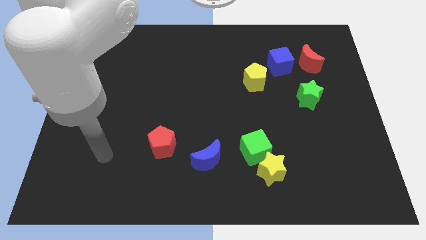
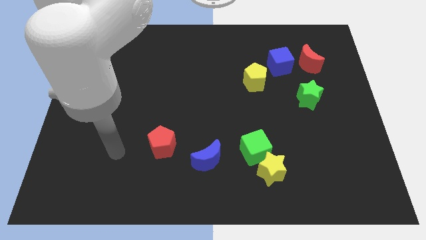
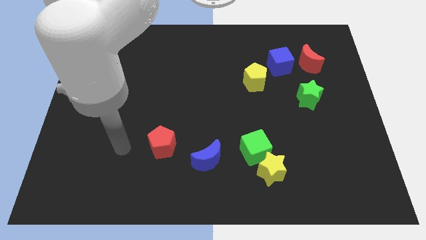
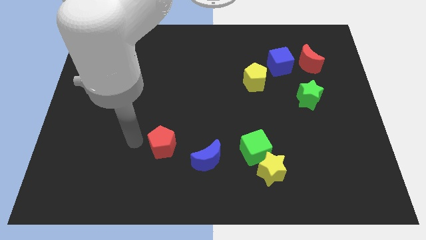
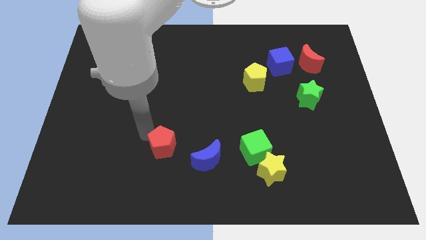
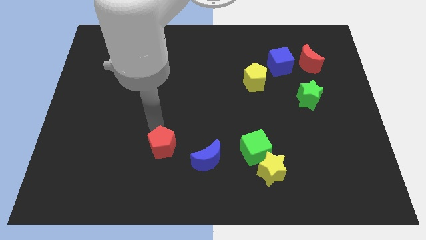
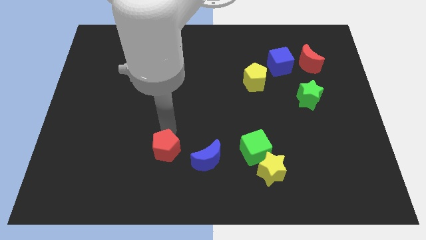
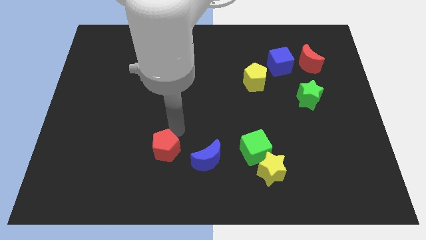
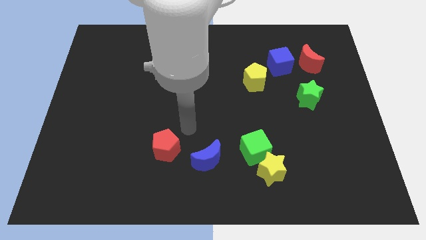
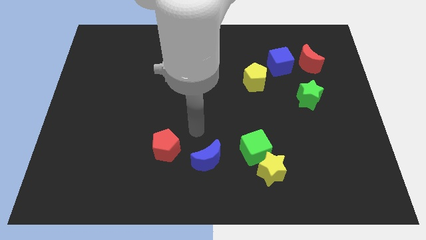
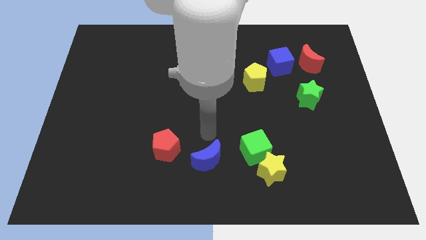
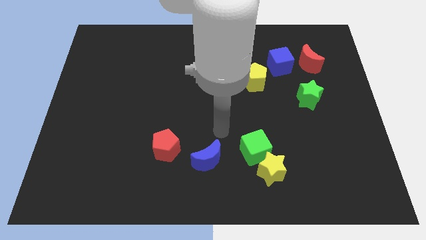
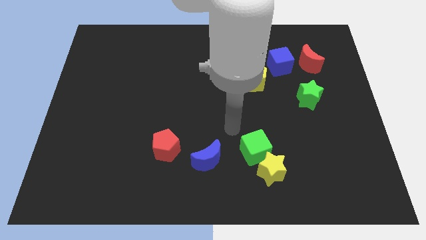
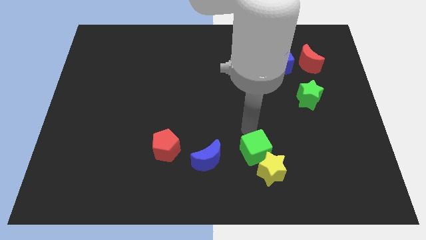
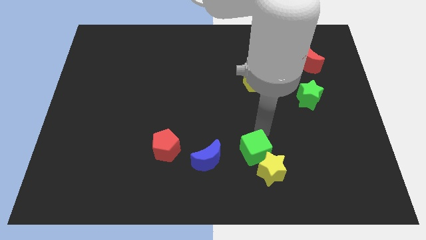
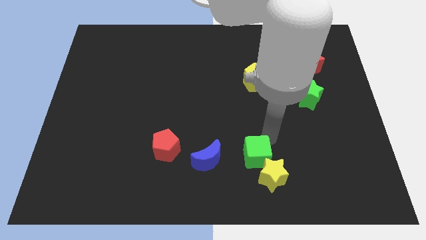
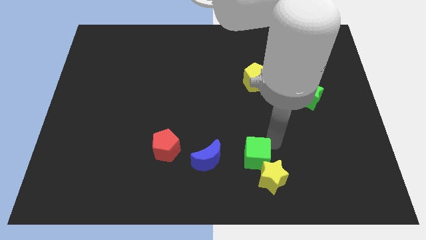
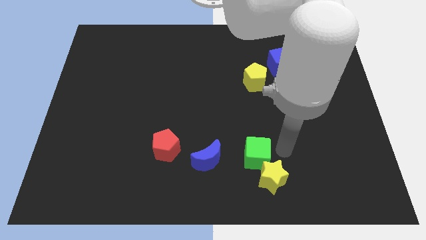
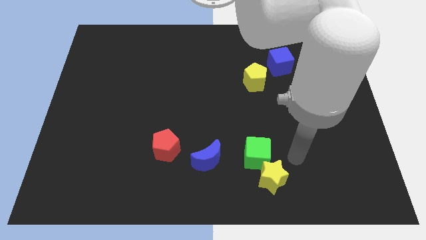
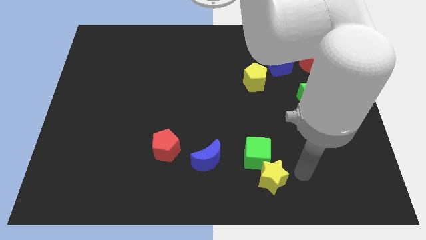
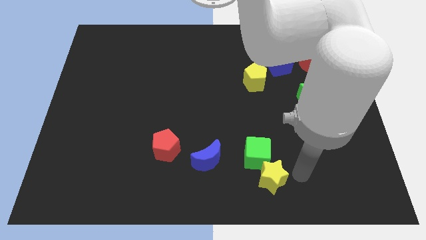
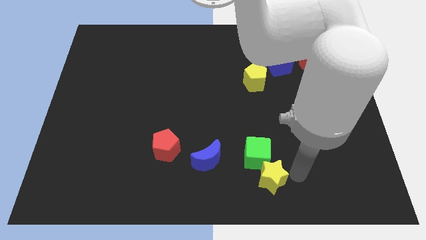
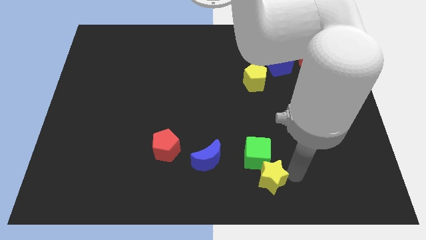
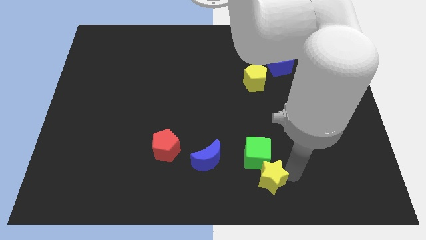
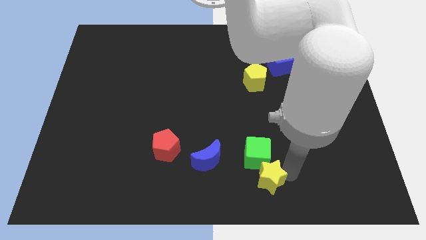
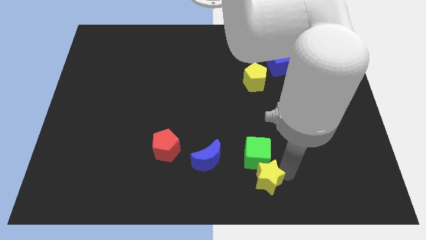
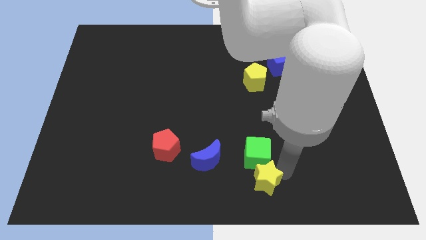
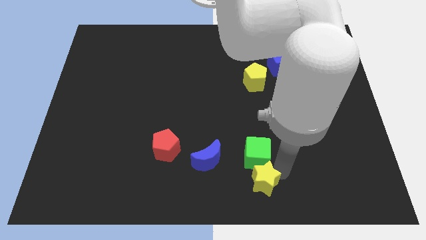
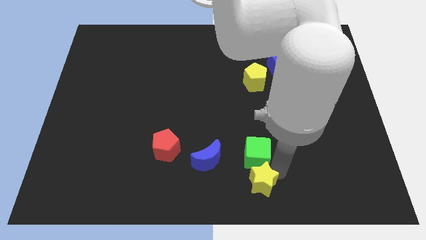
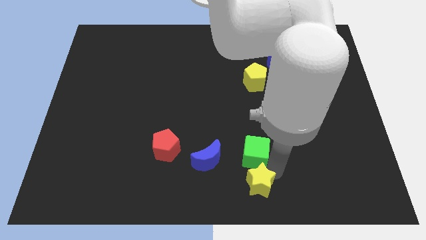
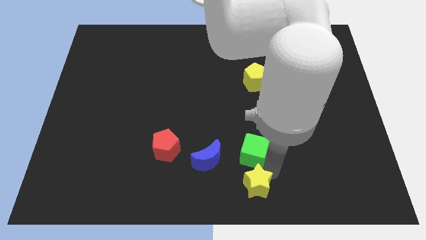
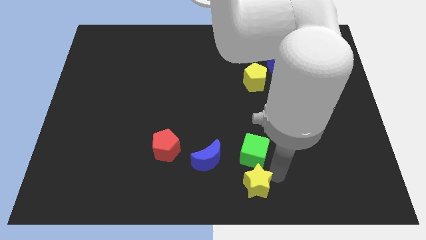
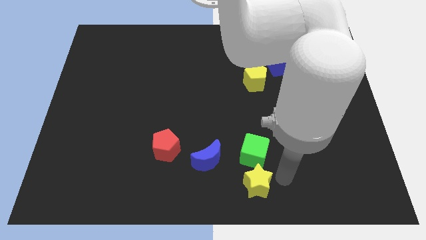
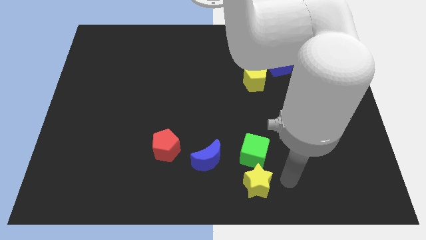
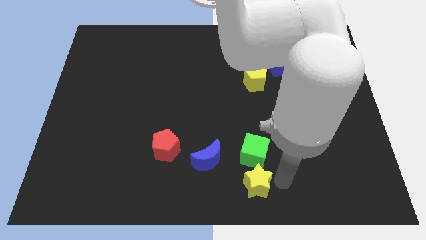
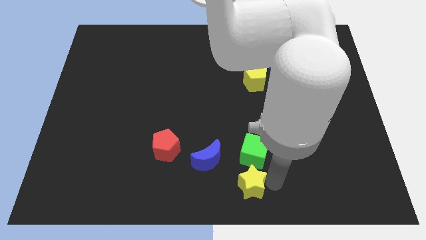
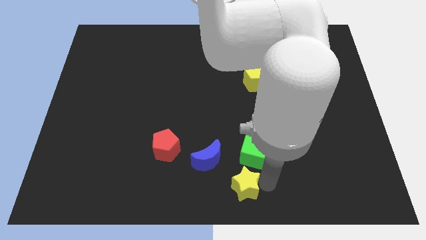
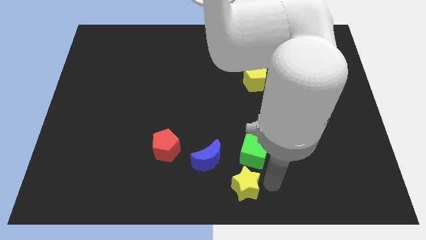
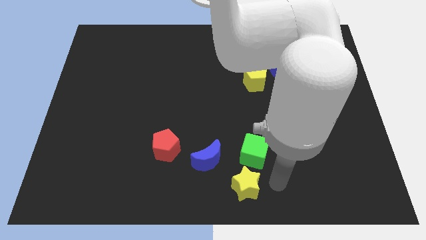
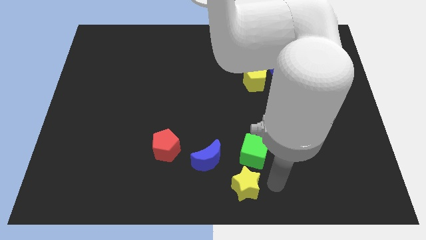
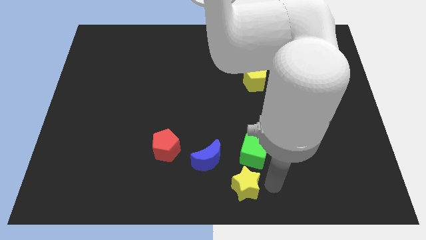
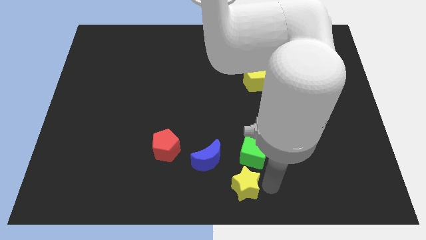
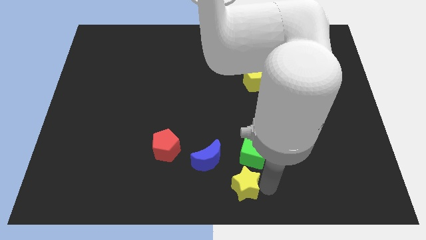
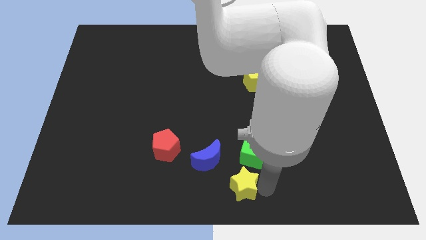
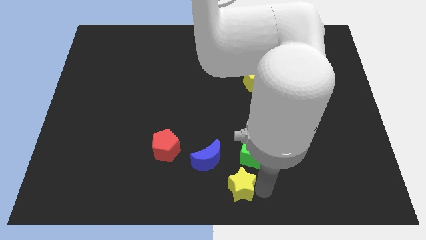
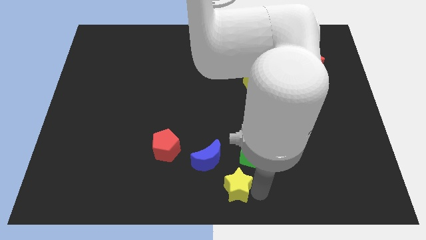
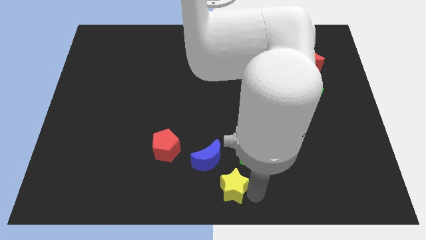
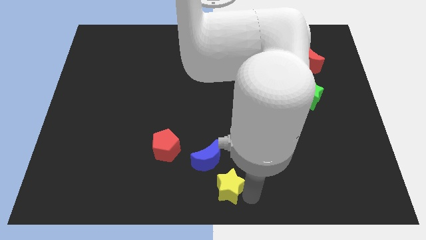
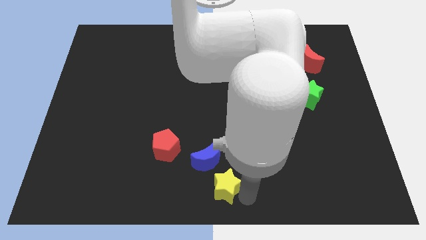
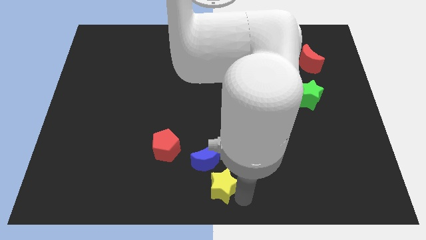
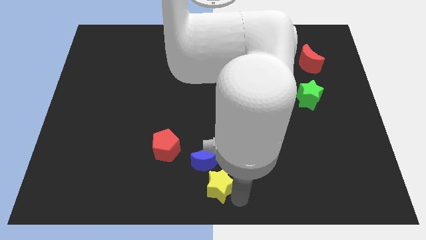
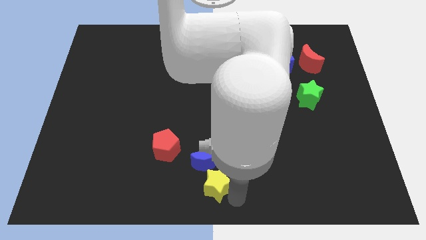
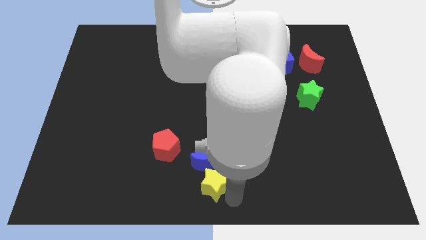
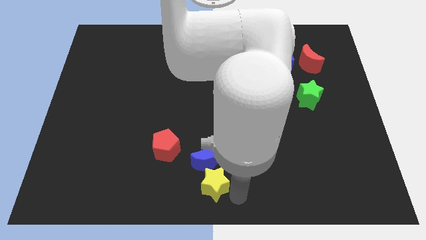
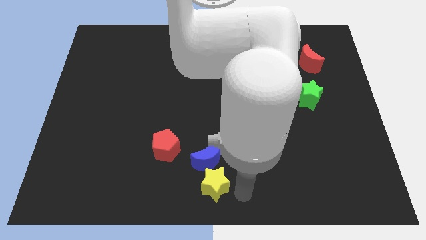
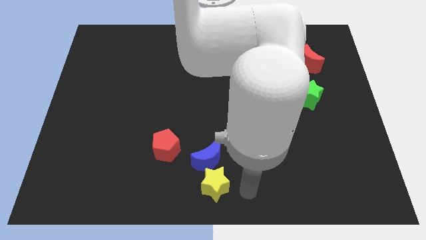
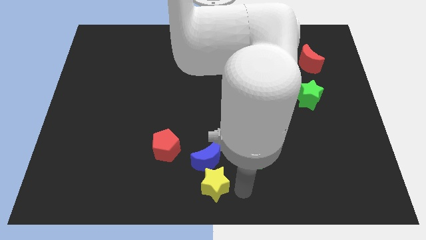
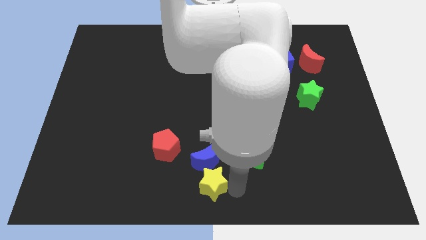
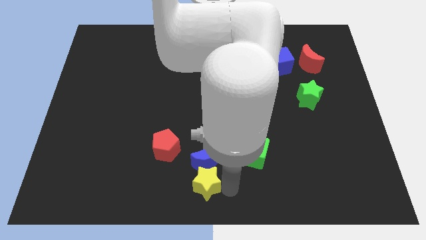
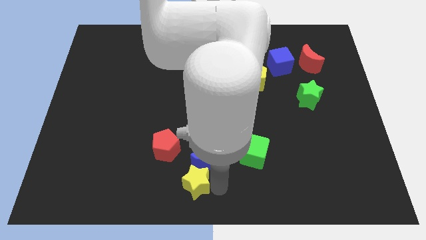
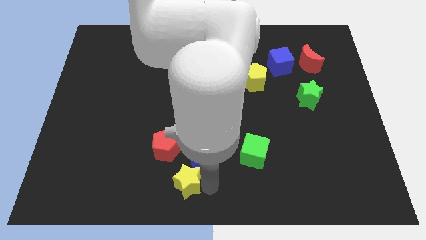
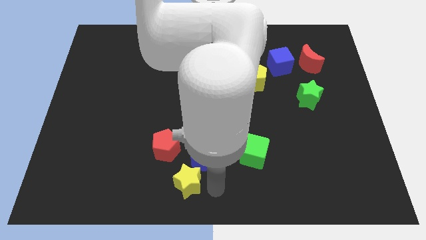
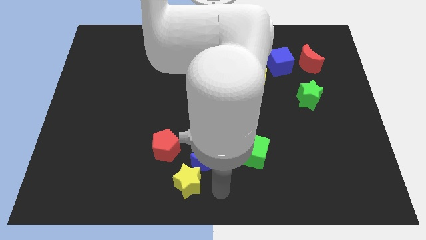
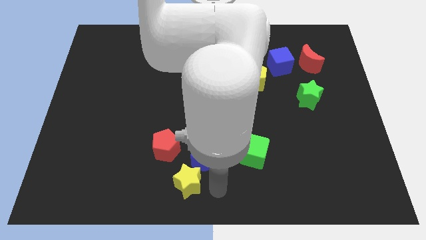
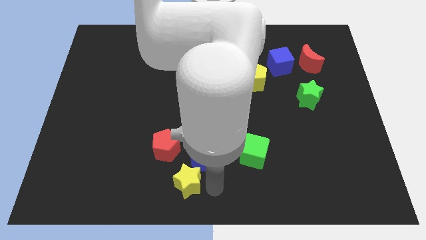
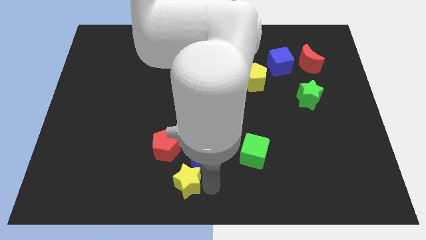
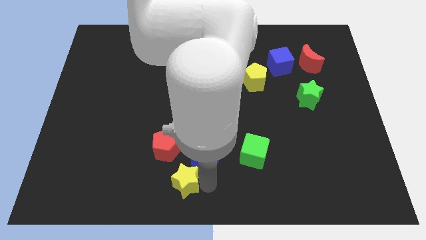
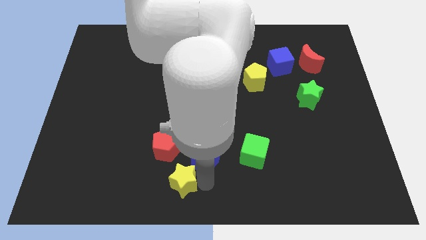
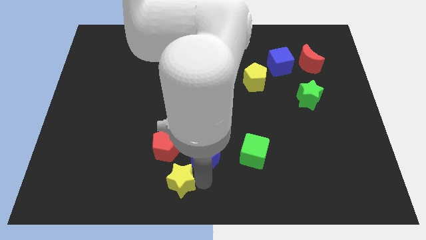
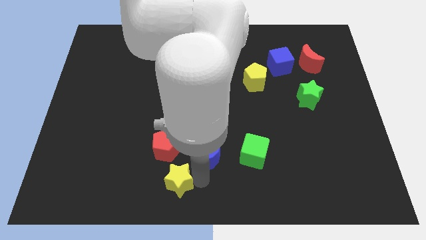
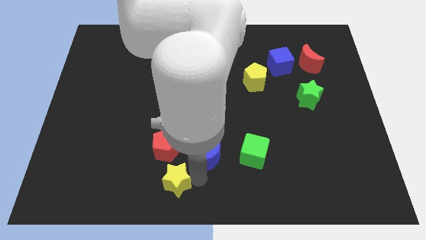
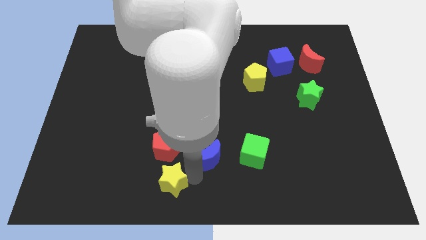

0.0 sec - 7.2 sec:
slide the yellow star to the left

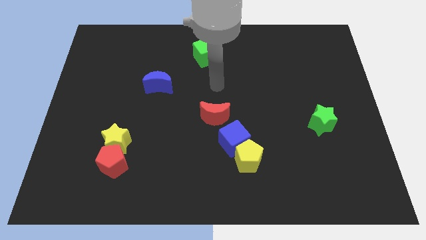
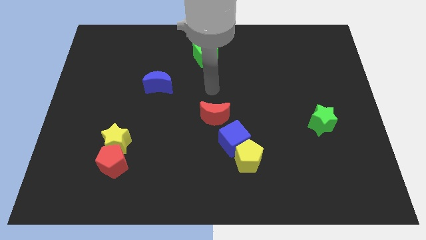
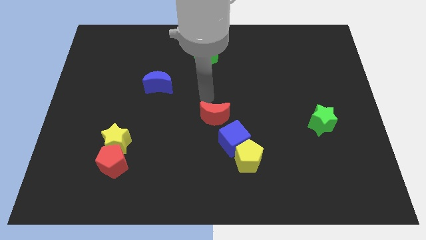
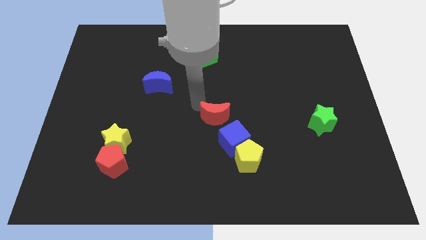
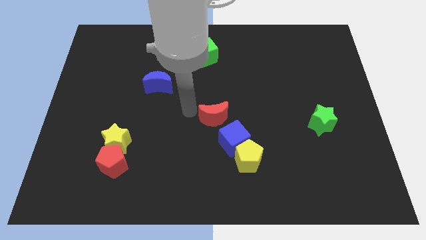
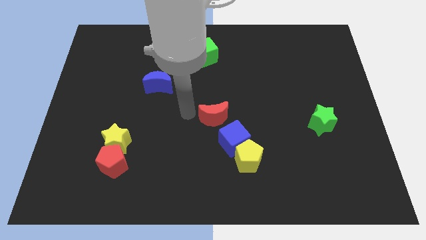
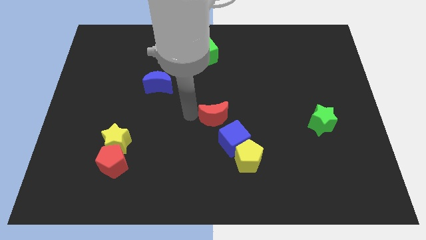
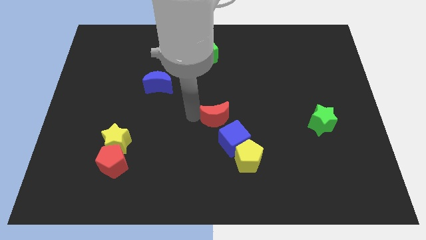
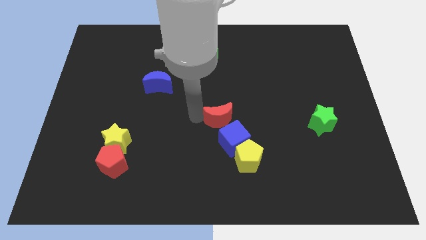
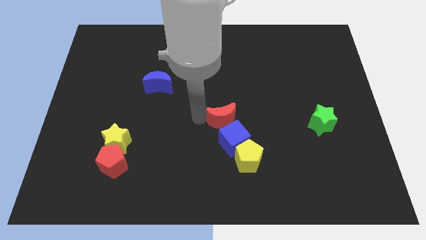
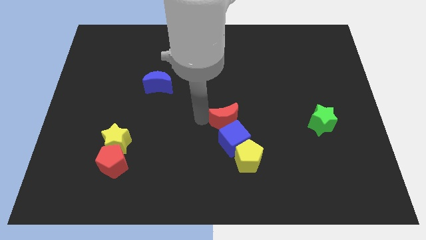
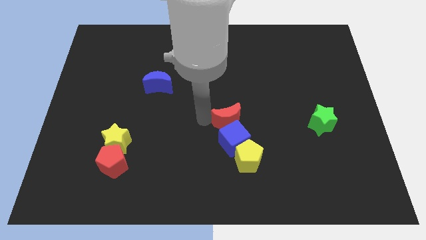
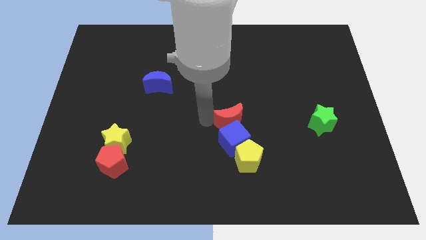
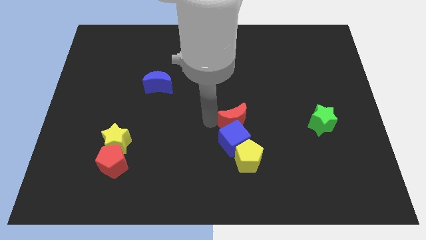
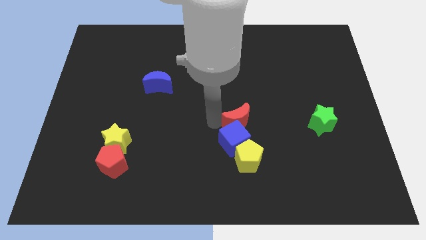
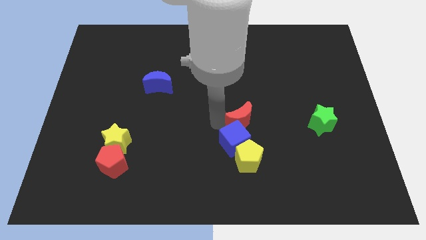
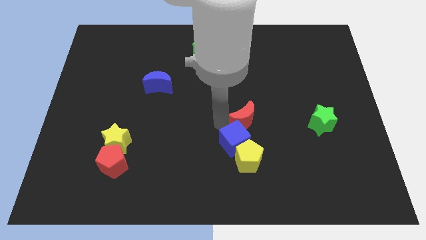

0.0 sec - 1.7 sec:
slightly move the red moon right
